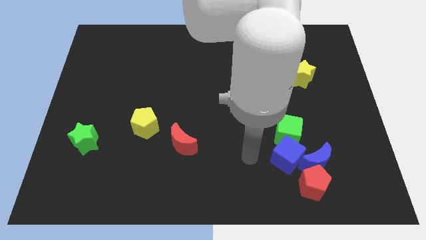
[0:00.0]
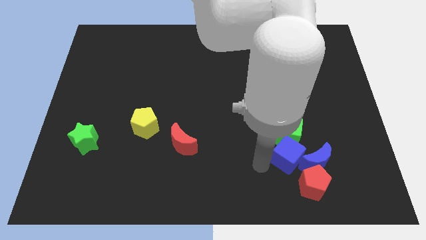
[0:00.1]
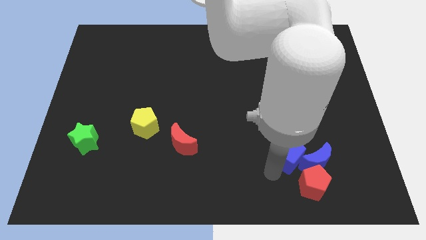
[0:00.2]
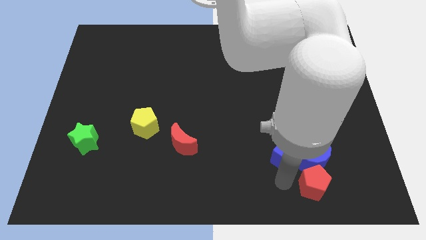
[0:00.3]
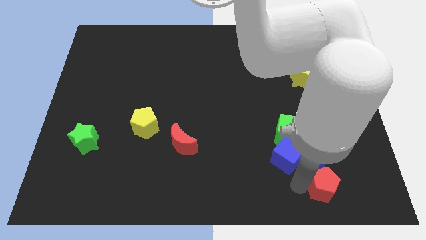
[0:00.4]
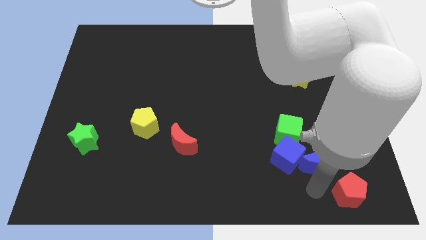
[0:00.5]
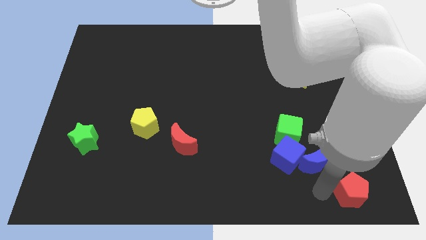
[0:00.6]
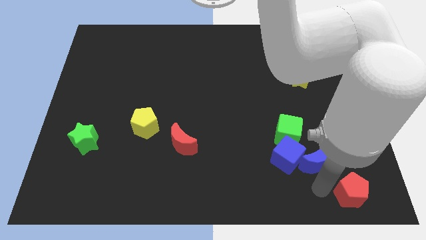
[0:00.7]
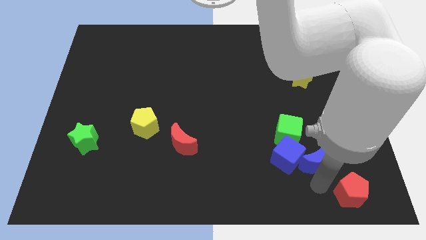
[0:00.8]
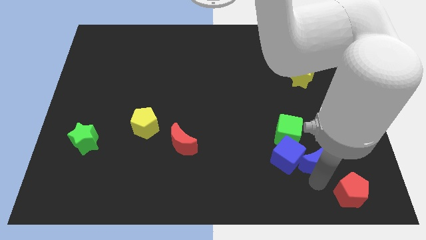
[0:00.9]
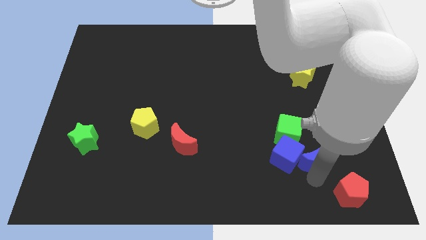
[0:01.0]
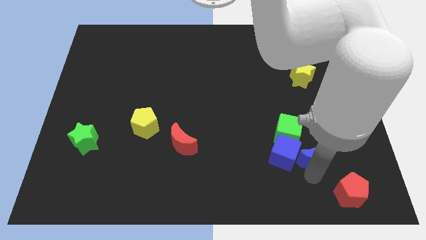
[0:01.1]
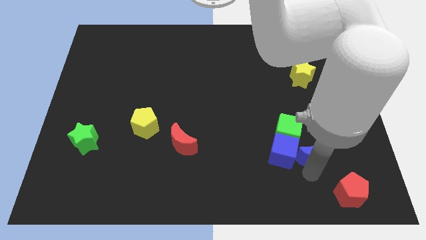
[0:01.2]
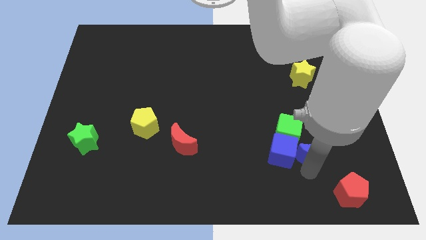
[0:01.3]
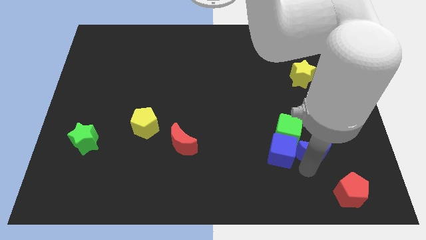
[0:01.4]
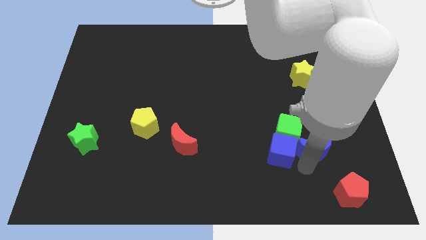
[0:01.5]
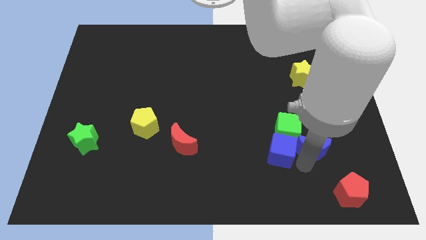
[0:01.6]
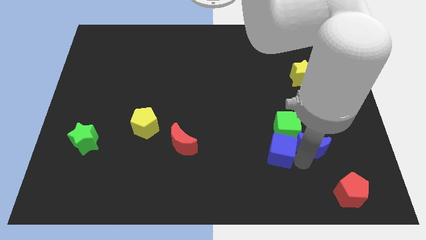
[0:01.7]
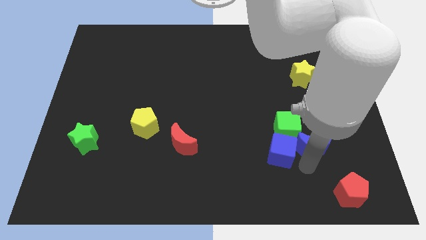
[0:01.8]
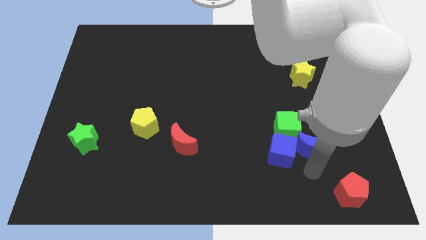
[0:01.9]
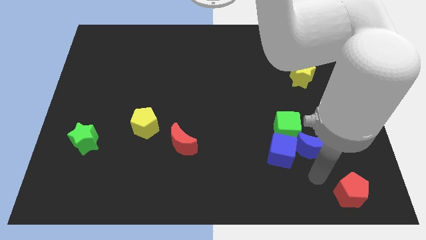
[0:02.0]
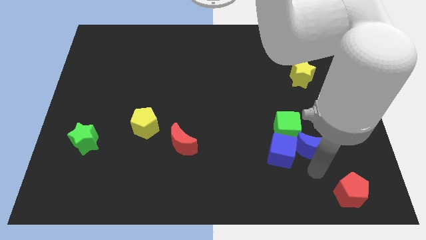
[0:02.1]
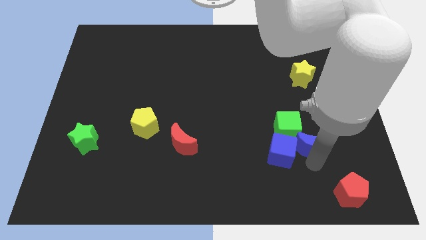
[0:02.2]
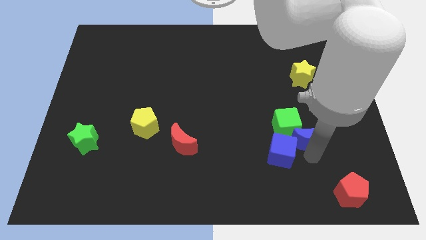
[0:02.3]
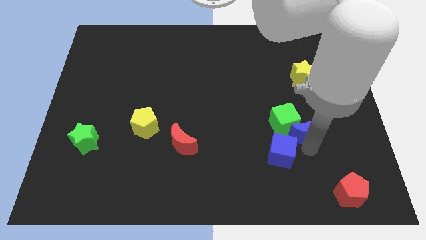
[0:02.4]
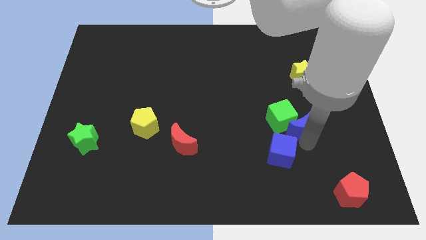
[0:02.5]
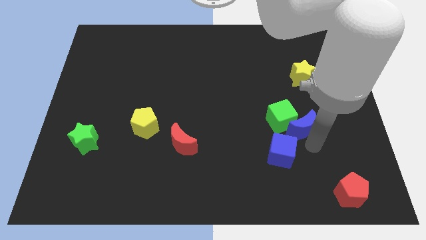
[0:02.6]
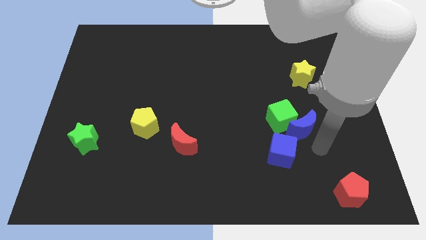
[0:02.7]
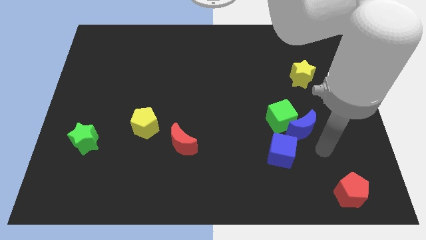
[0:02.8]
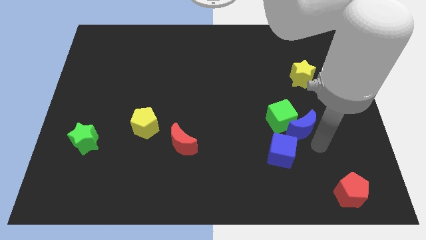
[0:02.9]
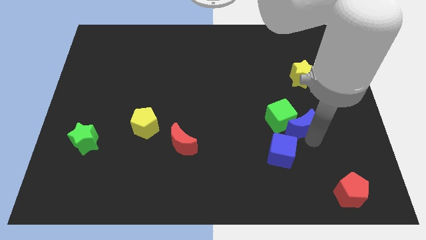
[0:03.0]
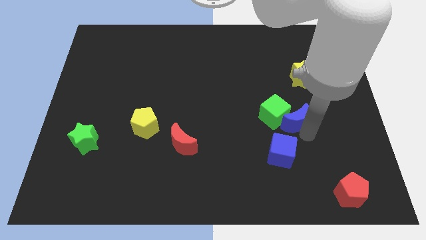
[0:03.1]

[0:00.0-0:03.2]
push the blue moon diagonally up and left slightly

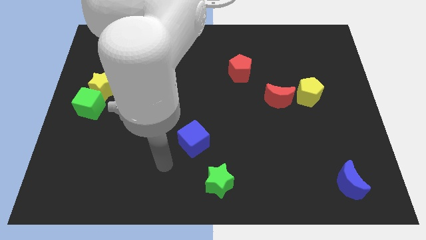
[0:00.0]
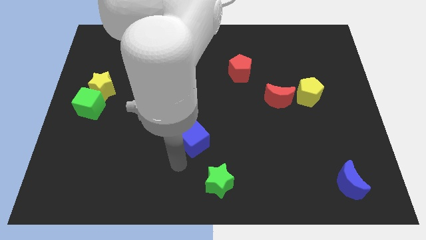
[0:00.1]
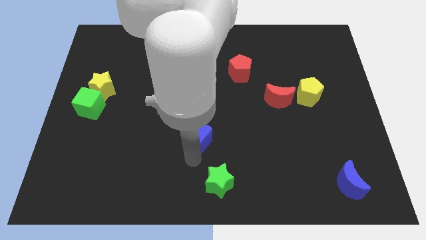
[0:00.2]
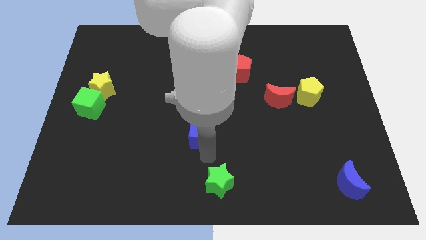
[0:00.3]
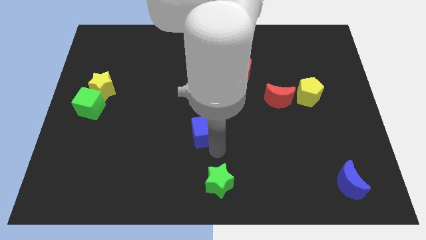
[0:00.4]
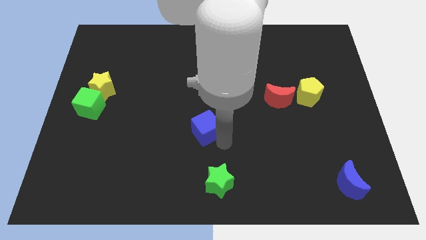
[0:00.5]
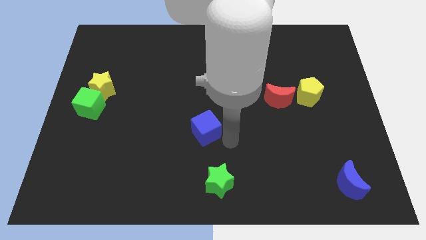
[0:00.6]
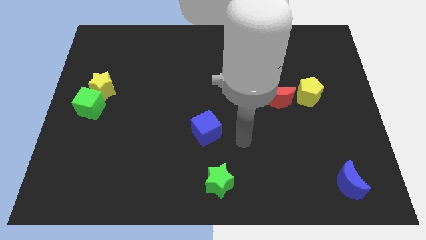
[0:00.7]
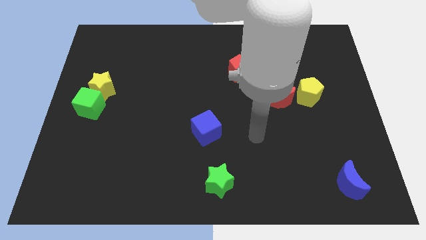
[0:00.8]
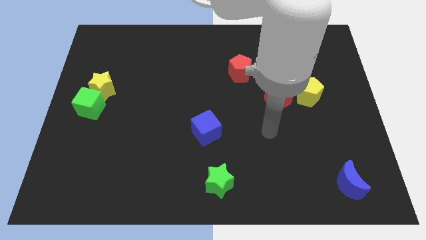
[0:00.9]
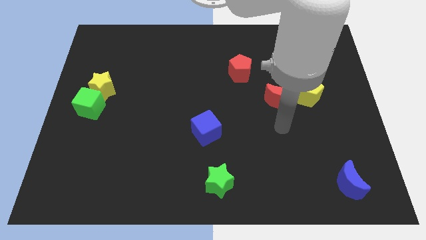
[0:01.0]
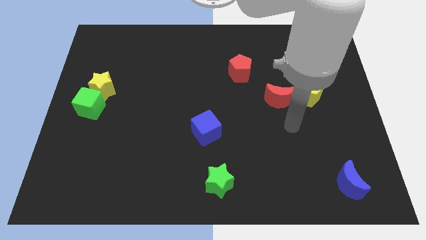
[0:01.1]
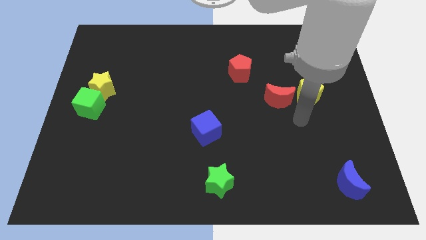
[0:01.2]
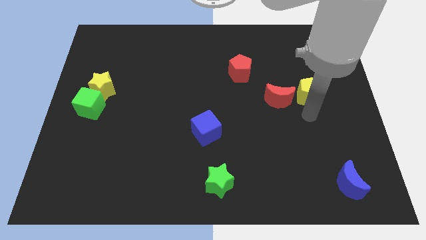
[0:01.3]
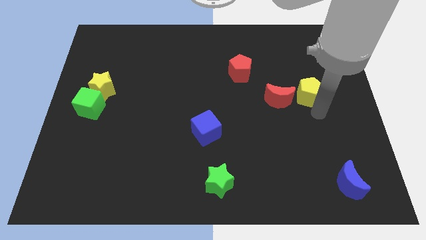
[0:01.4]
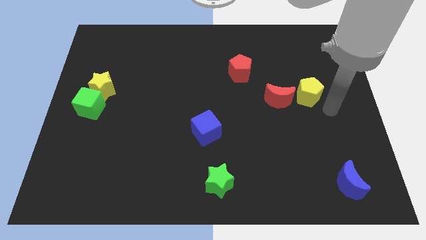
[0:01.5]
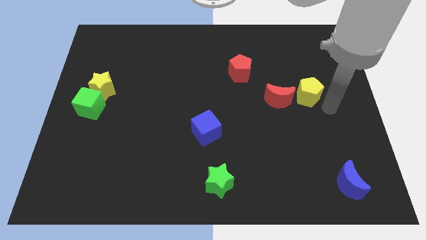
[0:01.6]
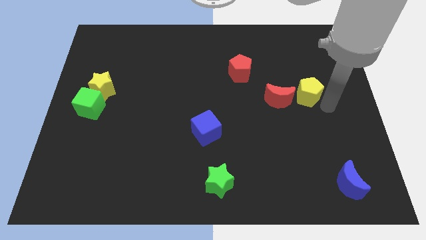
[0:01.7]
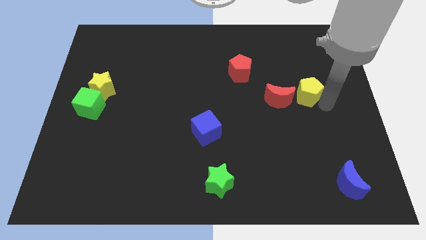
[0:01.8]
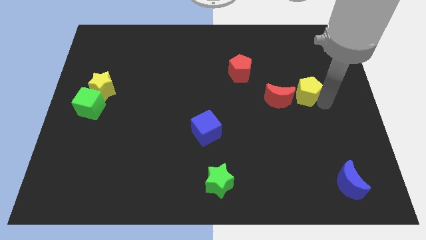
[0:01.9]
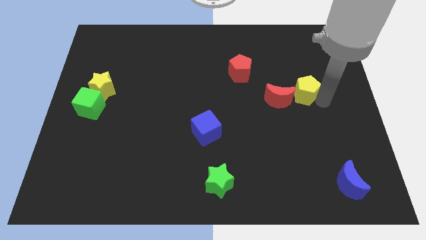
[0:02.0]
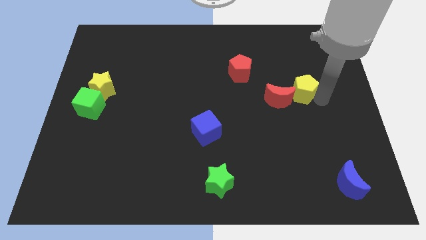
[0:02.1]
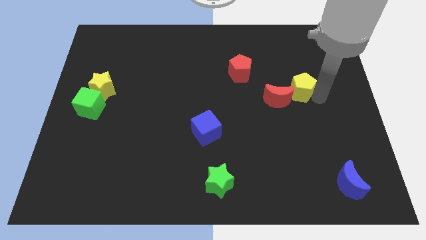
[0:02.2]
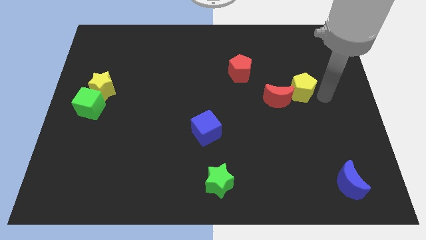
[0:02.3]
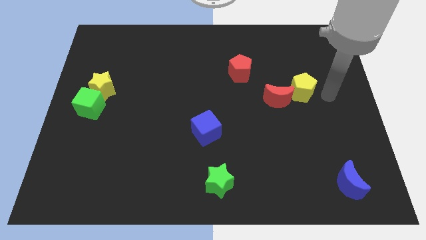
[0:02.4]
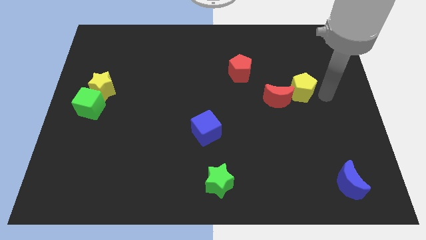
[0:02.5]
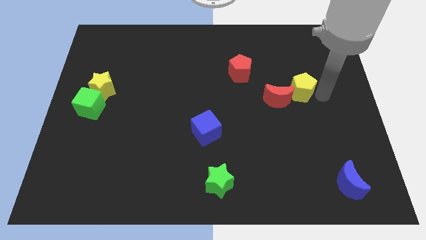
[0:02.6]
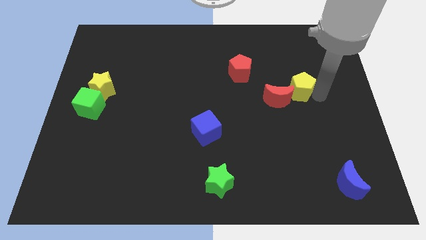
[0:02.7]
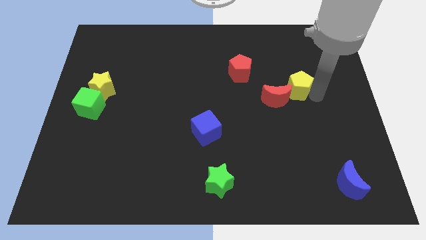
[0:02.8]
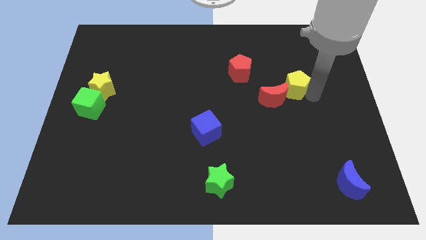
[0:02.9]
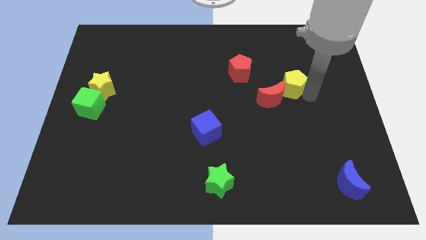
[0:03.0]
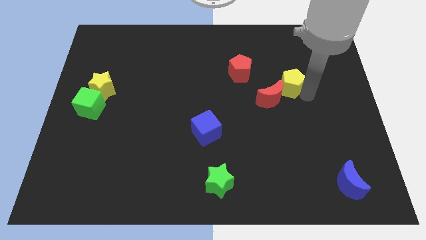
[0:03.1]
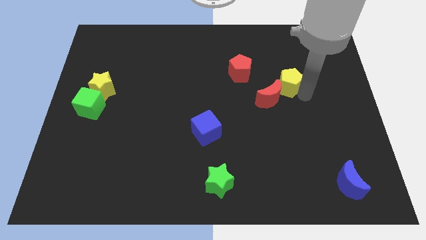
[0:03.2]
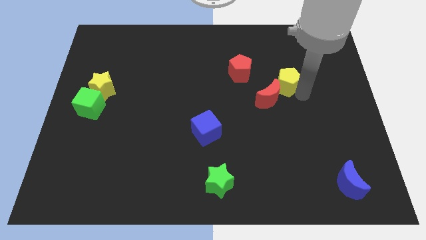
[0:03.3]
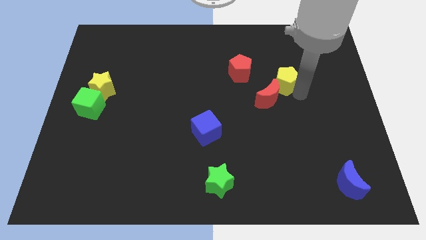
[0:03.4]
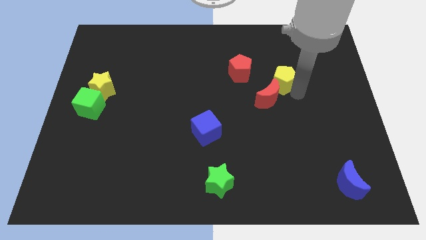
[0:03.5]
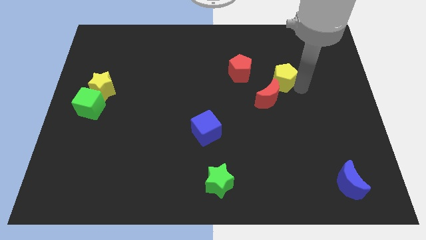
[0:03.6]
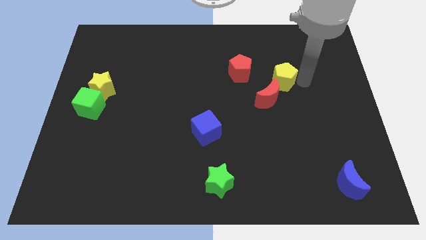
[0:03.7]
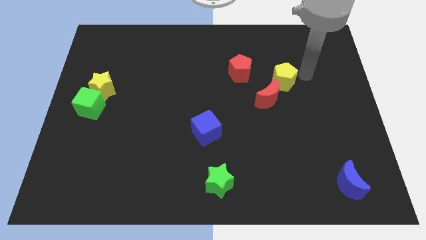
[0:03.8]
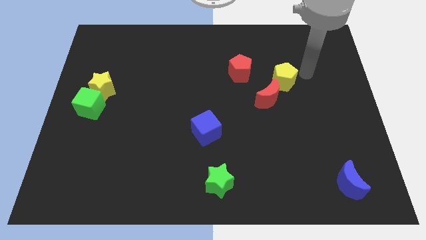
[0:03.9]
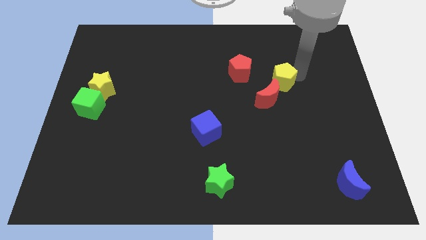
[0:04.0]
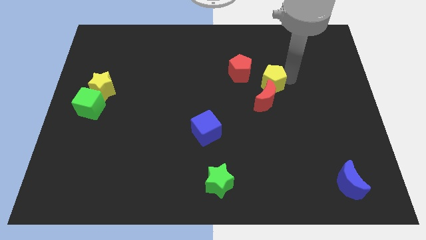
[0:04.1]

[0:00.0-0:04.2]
move the yellow pentagon left somewhat

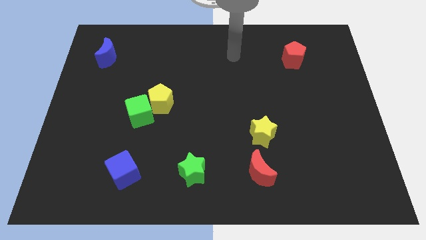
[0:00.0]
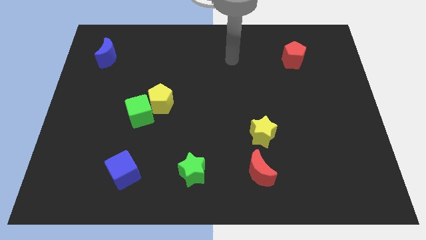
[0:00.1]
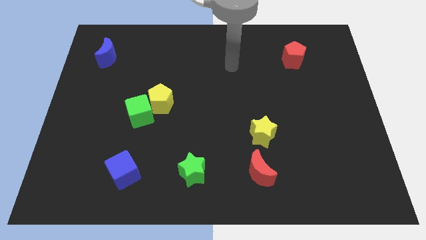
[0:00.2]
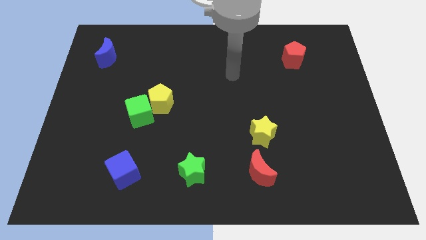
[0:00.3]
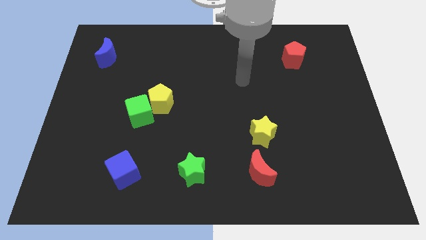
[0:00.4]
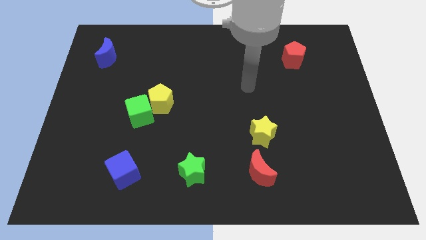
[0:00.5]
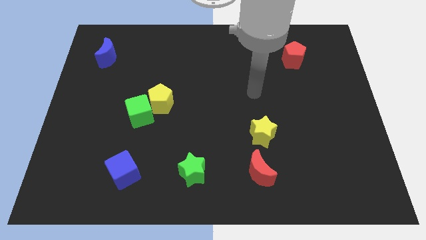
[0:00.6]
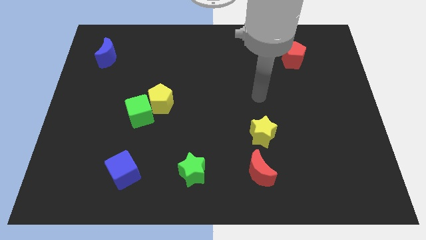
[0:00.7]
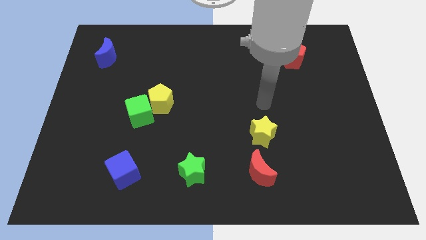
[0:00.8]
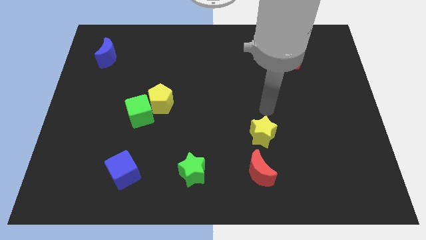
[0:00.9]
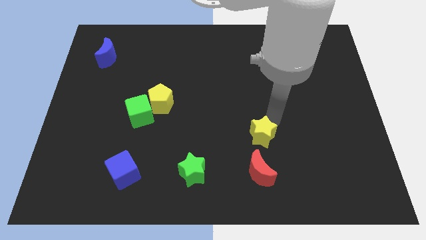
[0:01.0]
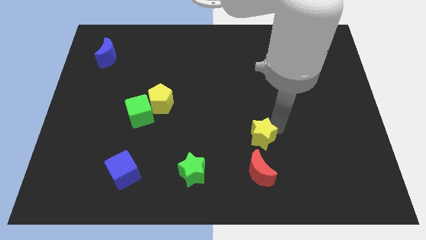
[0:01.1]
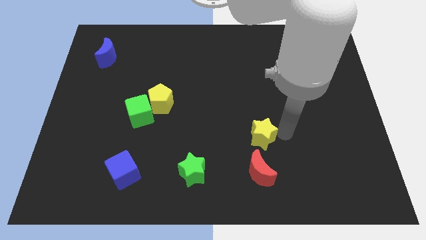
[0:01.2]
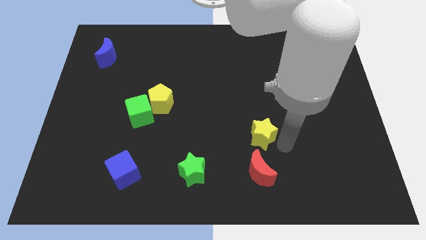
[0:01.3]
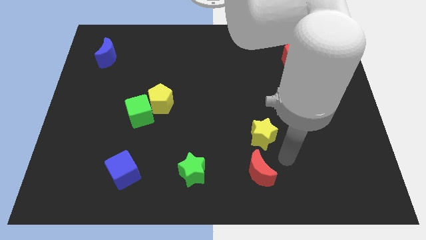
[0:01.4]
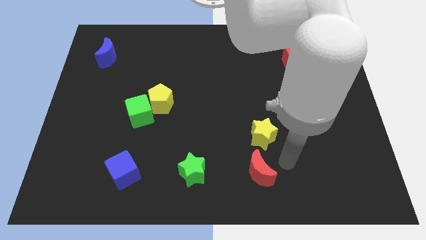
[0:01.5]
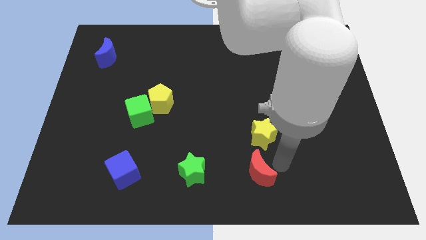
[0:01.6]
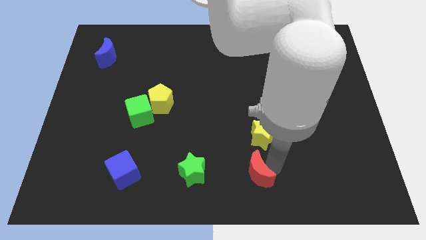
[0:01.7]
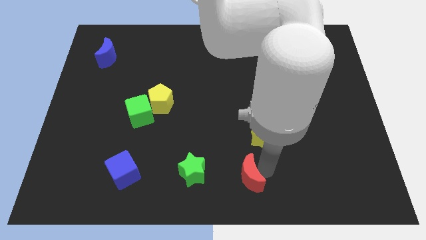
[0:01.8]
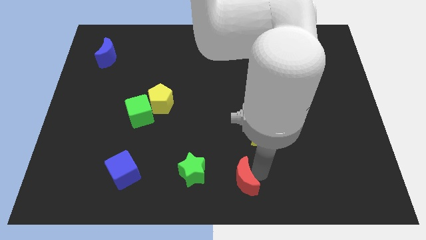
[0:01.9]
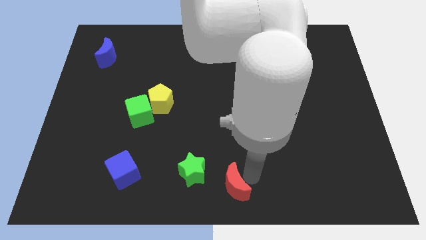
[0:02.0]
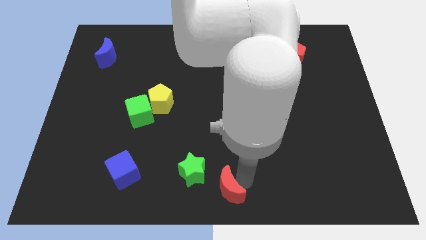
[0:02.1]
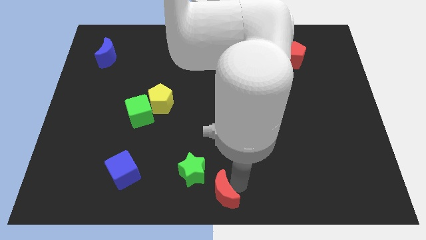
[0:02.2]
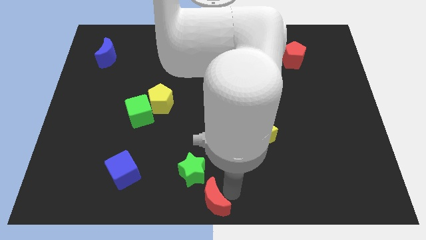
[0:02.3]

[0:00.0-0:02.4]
slightly move the red moon left
